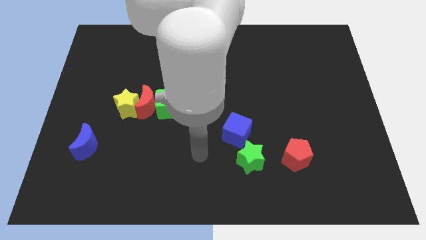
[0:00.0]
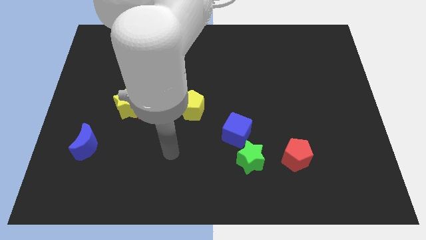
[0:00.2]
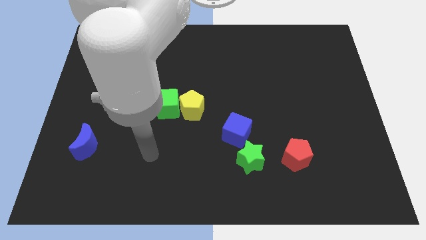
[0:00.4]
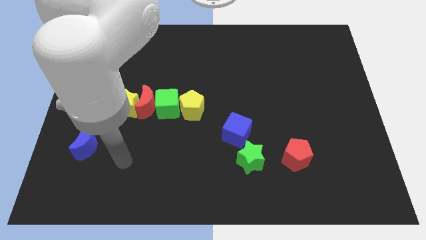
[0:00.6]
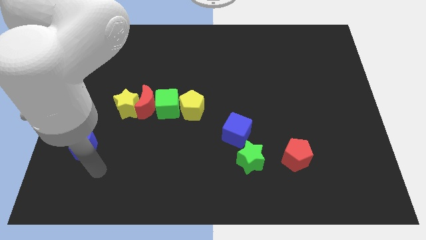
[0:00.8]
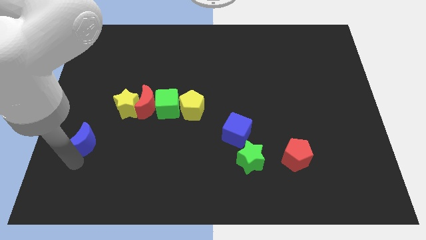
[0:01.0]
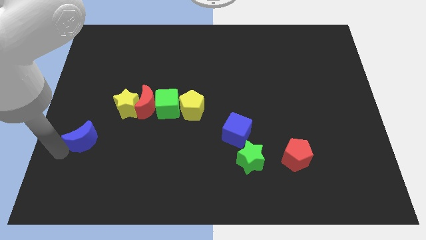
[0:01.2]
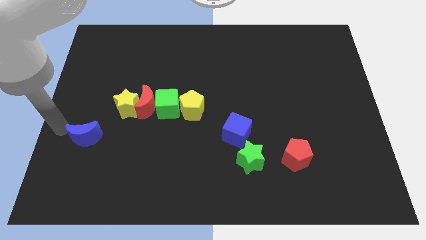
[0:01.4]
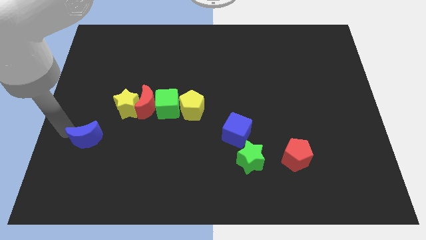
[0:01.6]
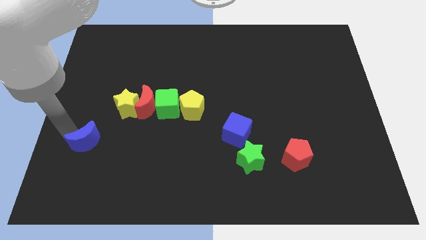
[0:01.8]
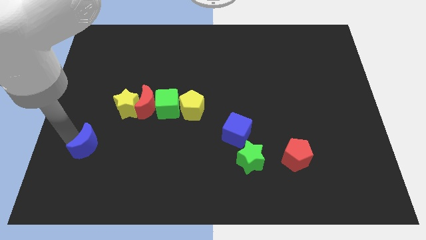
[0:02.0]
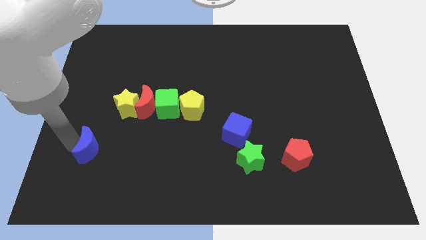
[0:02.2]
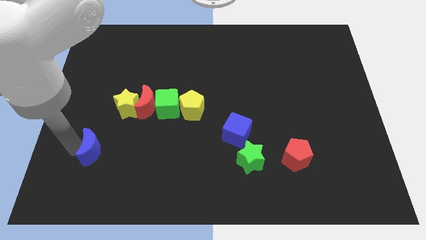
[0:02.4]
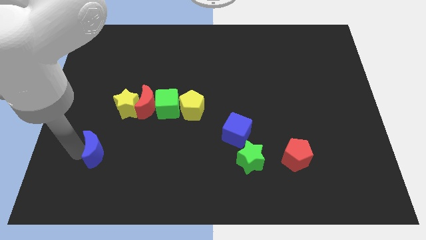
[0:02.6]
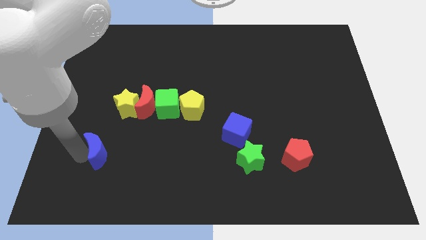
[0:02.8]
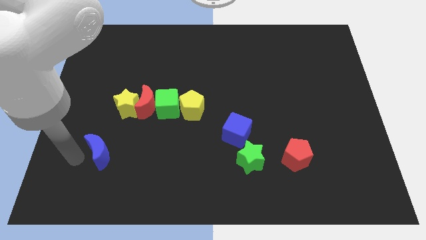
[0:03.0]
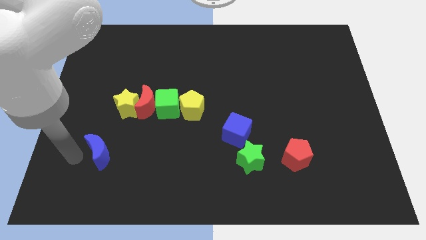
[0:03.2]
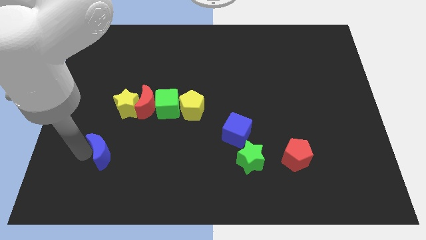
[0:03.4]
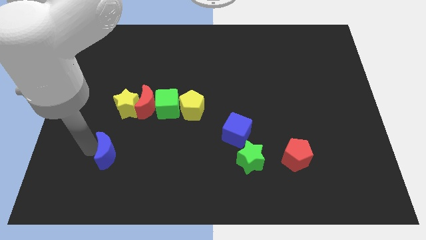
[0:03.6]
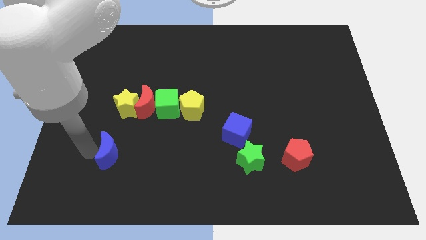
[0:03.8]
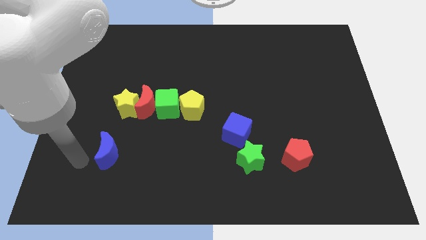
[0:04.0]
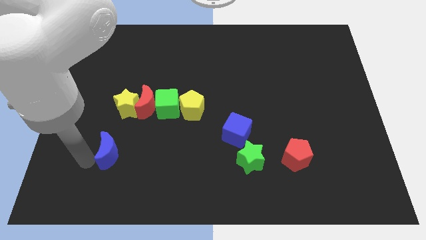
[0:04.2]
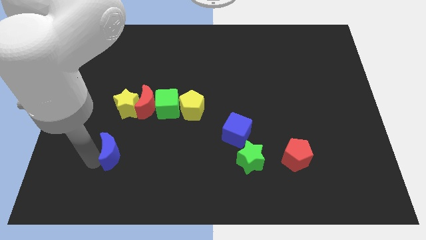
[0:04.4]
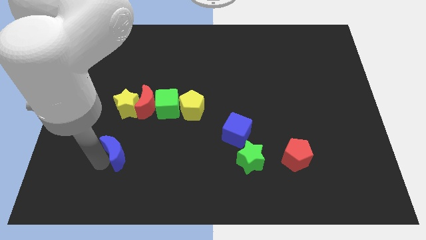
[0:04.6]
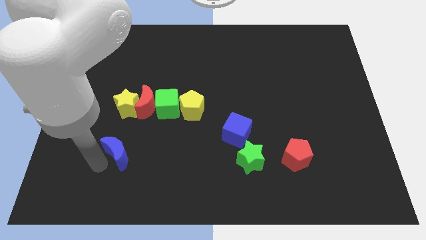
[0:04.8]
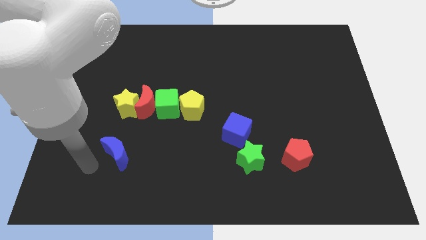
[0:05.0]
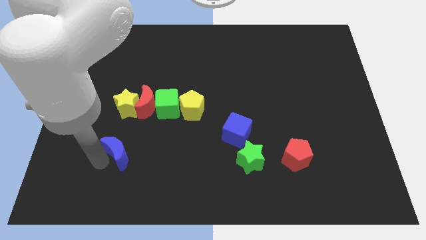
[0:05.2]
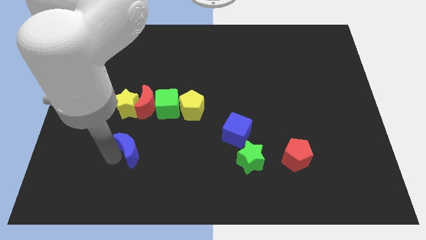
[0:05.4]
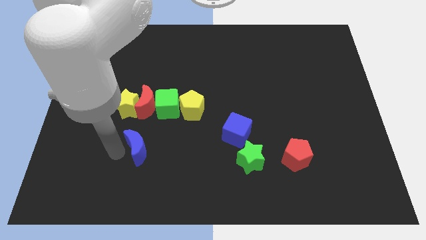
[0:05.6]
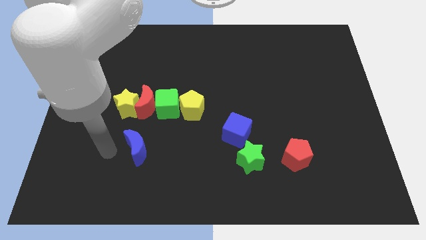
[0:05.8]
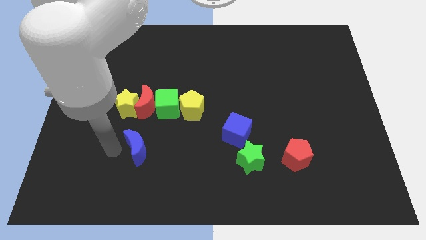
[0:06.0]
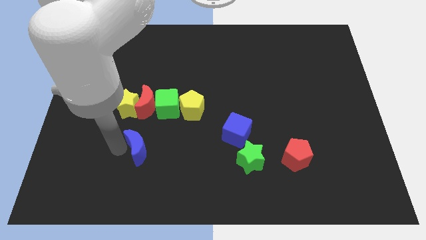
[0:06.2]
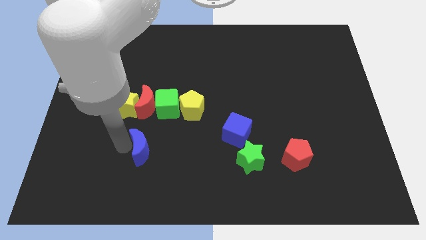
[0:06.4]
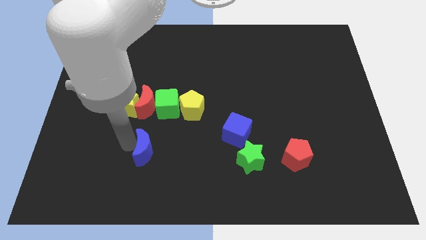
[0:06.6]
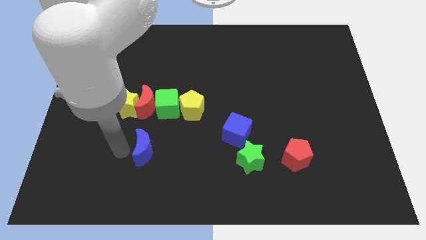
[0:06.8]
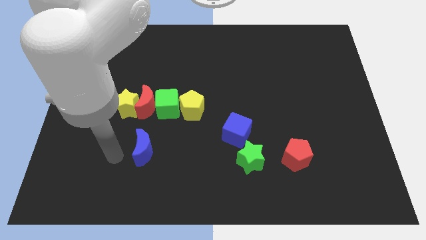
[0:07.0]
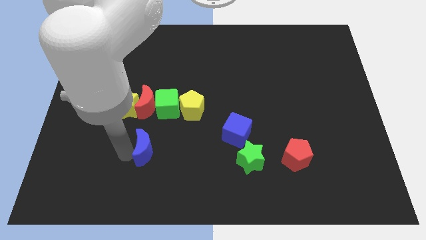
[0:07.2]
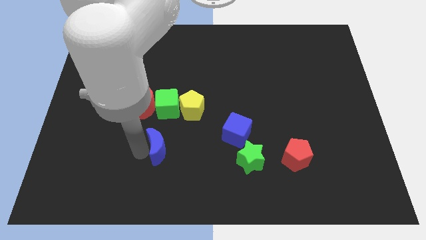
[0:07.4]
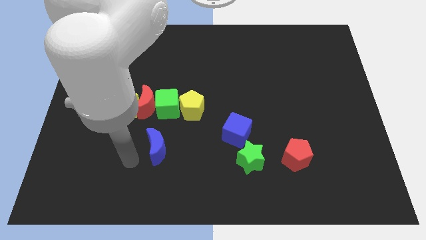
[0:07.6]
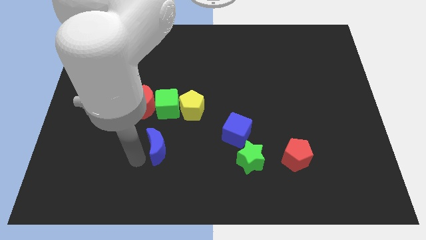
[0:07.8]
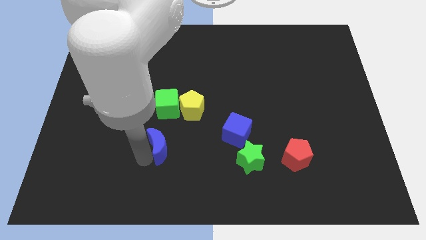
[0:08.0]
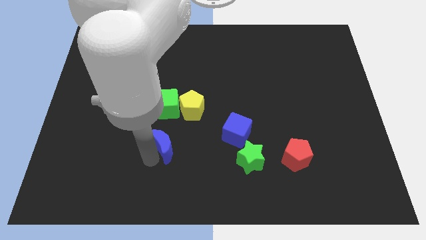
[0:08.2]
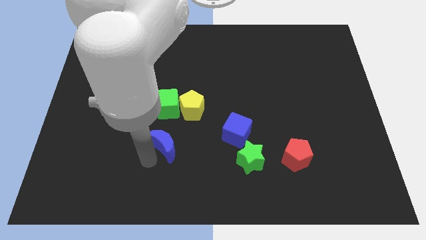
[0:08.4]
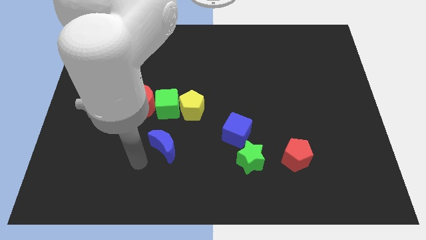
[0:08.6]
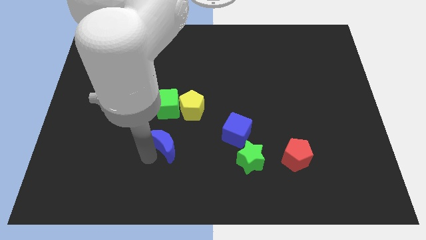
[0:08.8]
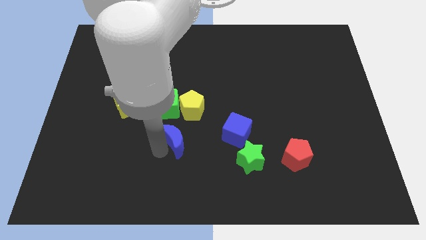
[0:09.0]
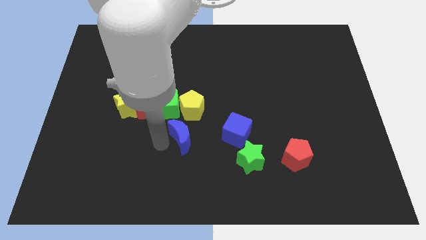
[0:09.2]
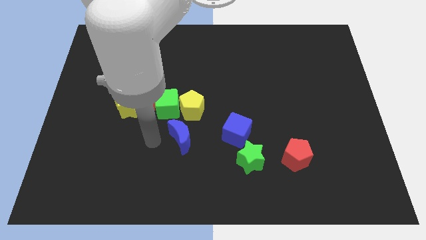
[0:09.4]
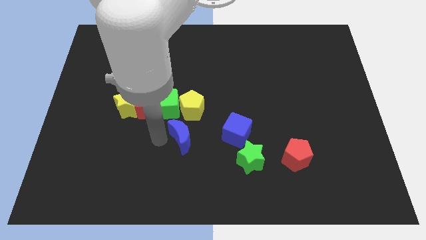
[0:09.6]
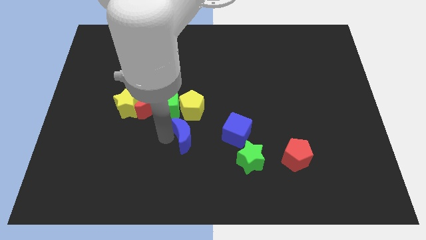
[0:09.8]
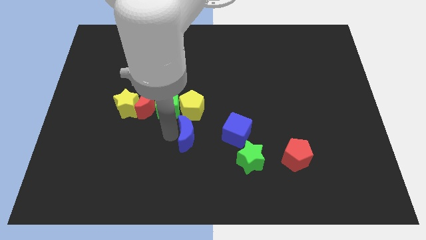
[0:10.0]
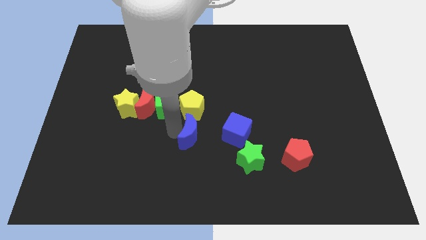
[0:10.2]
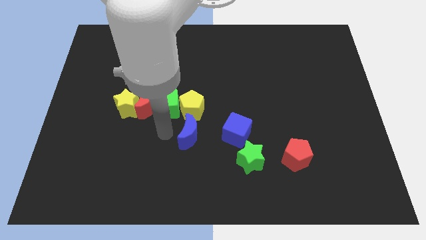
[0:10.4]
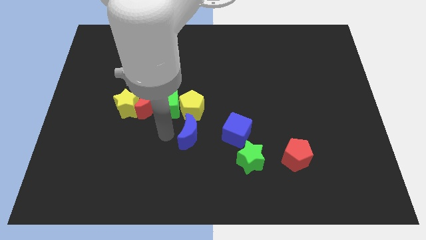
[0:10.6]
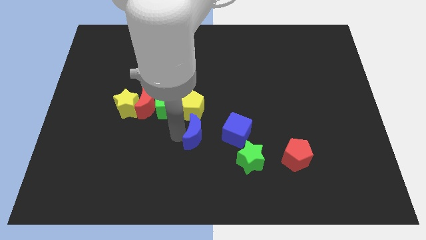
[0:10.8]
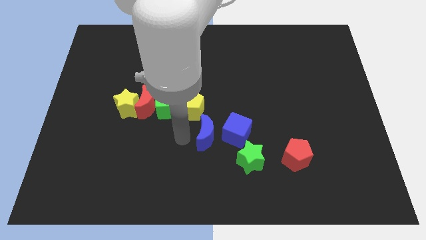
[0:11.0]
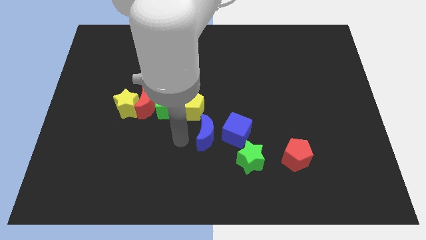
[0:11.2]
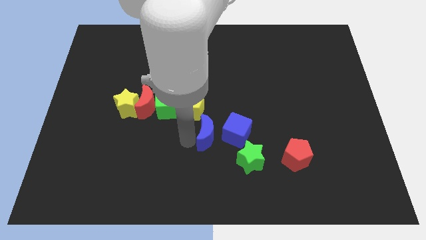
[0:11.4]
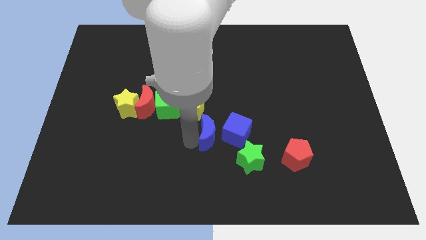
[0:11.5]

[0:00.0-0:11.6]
slide the blue moon close to the blue cube

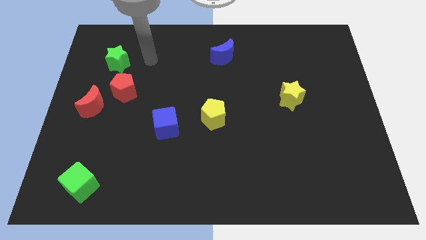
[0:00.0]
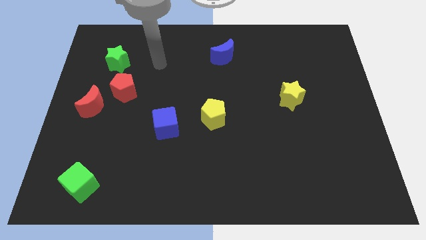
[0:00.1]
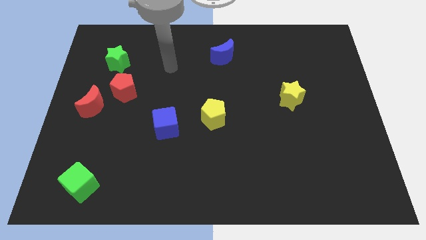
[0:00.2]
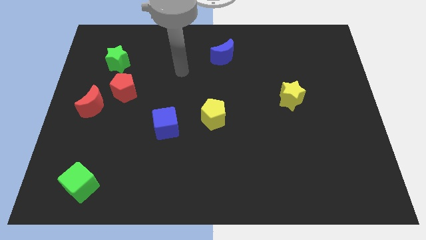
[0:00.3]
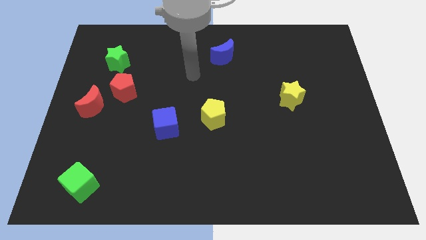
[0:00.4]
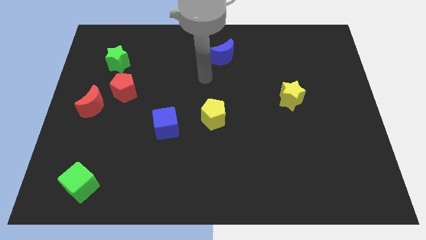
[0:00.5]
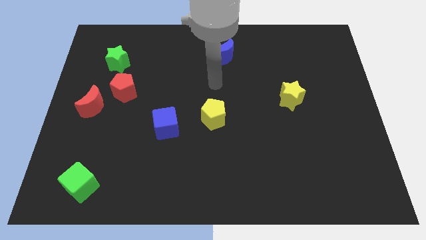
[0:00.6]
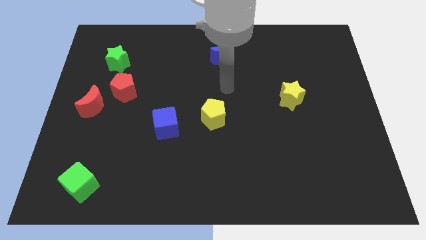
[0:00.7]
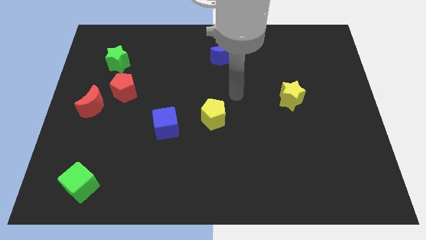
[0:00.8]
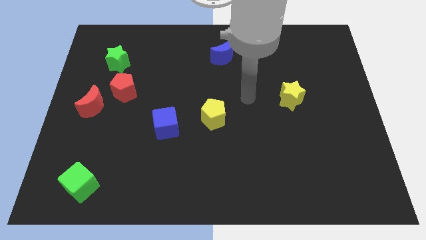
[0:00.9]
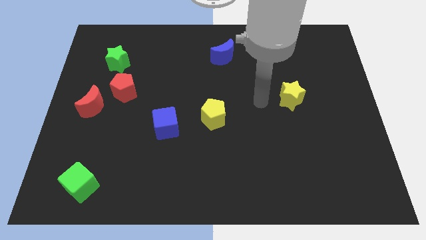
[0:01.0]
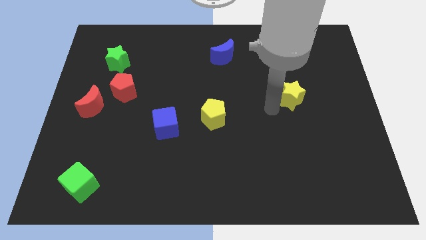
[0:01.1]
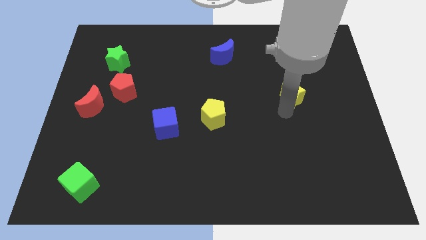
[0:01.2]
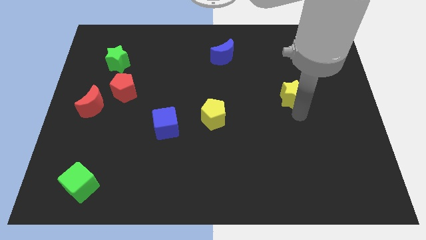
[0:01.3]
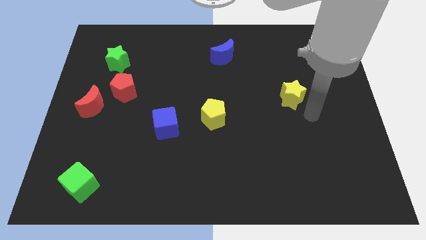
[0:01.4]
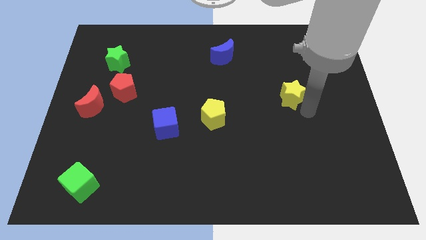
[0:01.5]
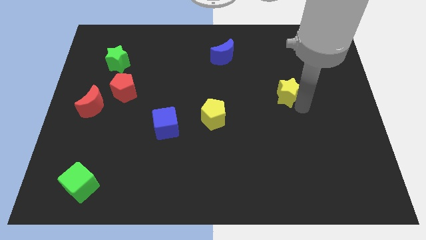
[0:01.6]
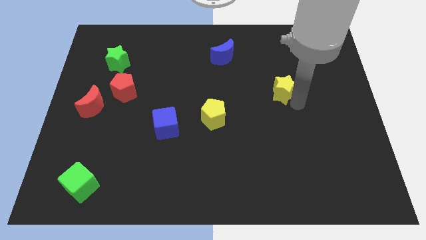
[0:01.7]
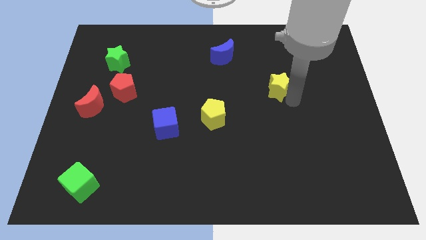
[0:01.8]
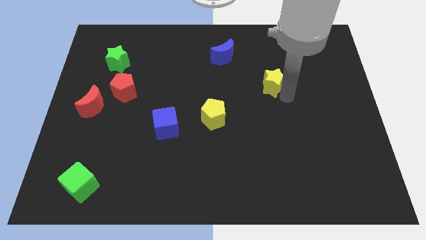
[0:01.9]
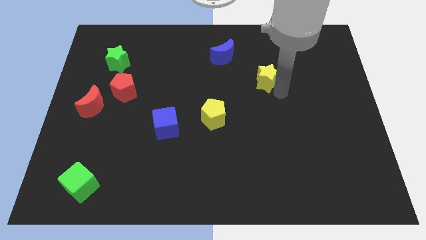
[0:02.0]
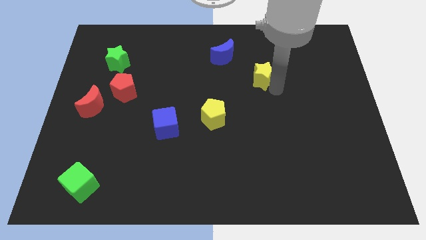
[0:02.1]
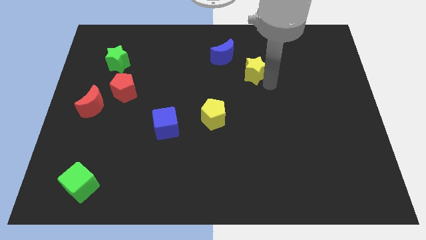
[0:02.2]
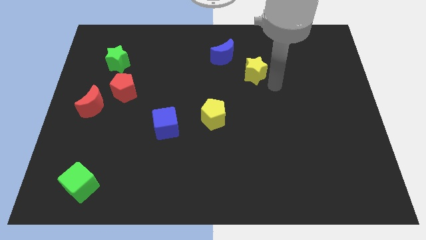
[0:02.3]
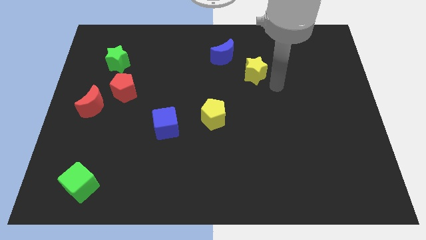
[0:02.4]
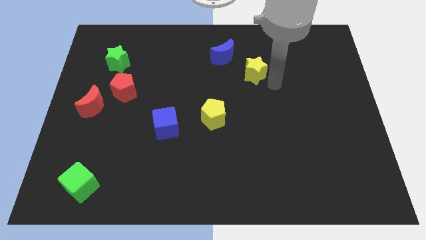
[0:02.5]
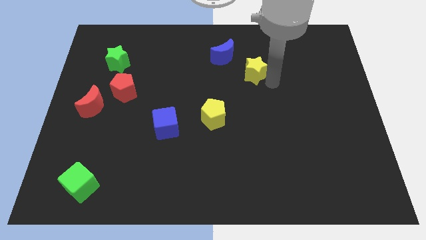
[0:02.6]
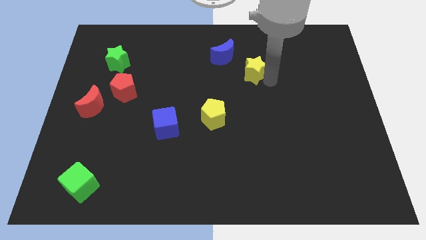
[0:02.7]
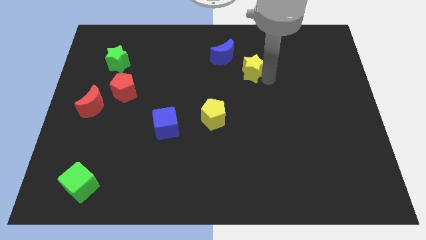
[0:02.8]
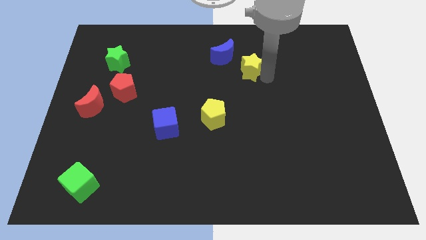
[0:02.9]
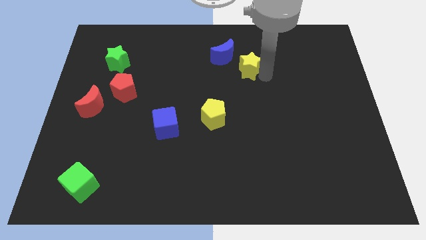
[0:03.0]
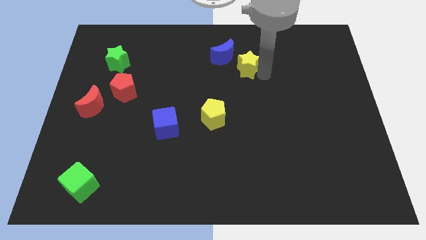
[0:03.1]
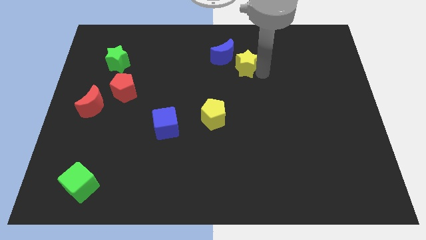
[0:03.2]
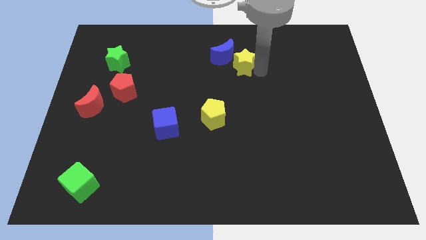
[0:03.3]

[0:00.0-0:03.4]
put the yellow star towards the blue moon
